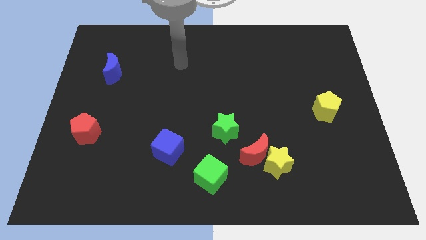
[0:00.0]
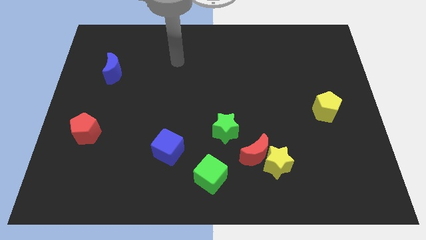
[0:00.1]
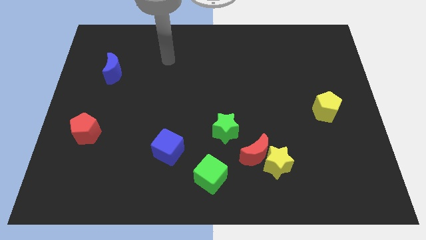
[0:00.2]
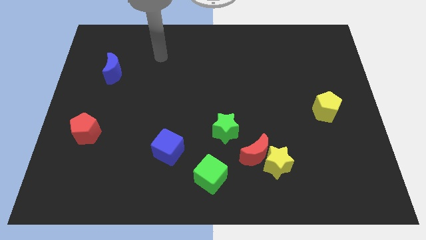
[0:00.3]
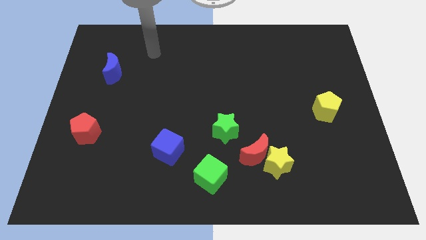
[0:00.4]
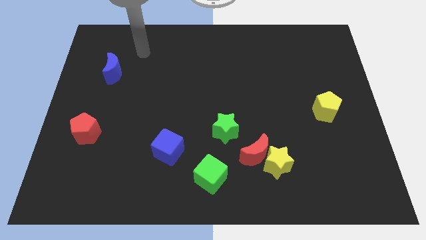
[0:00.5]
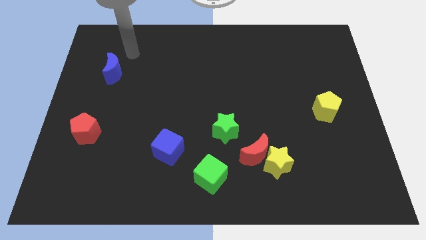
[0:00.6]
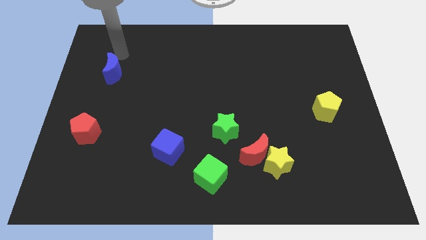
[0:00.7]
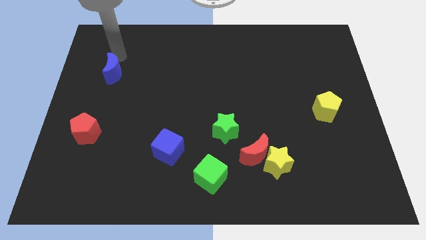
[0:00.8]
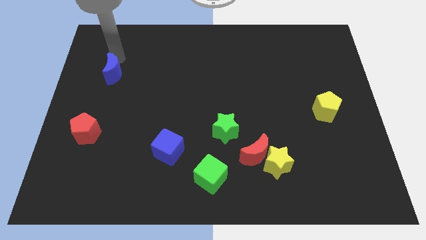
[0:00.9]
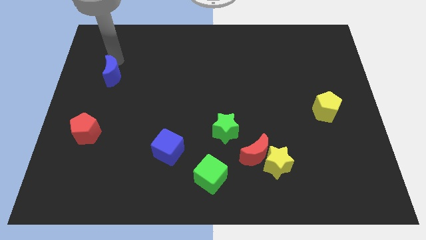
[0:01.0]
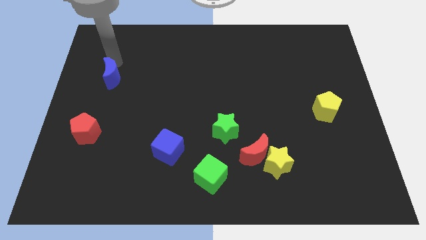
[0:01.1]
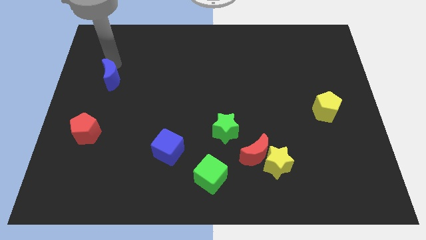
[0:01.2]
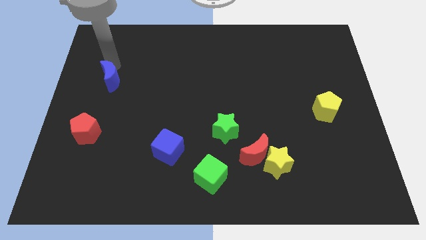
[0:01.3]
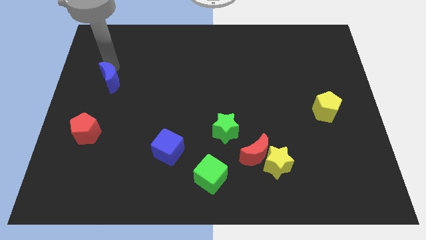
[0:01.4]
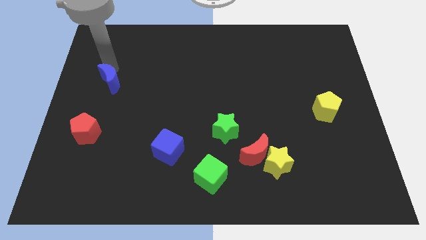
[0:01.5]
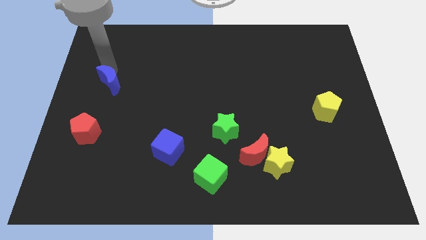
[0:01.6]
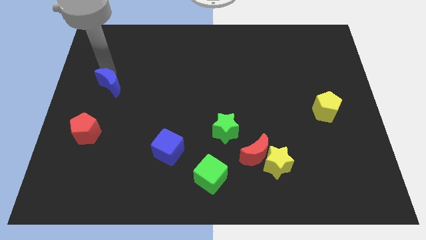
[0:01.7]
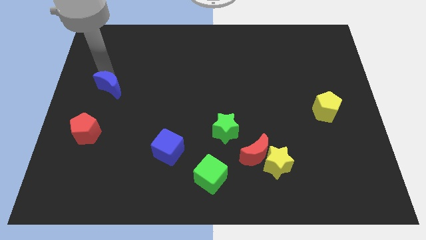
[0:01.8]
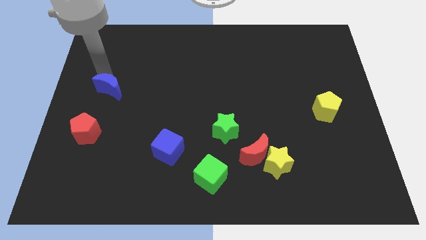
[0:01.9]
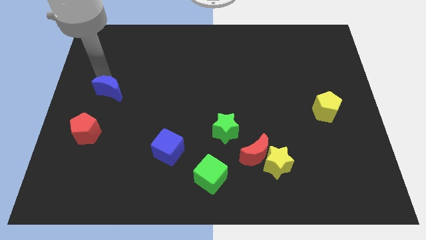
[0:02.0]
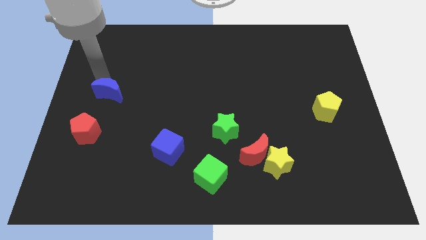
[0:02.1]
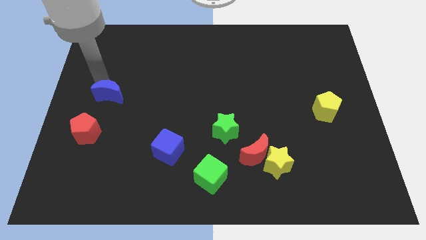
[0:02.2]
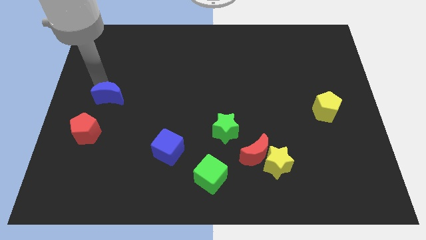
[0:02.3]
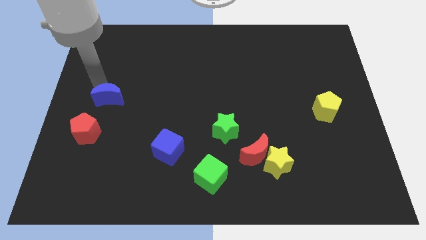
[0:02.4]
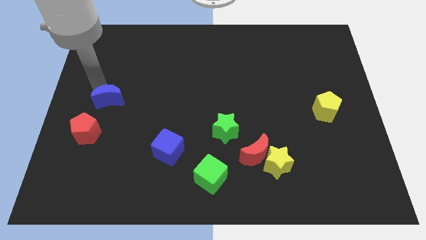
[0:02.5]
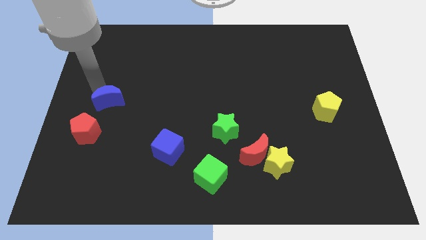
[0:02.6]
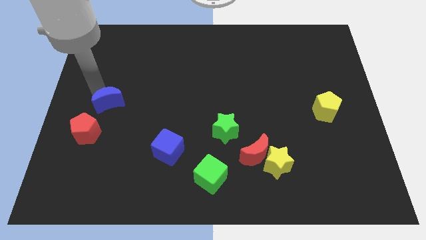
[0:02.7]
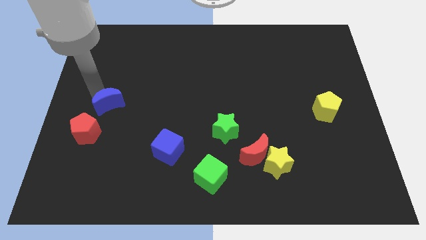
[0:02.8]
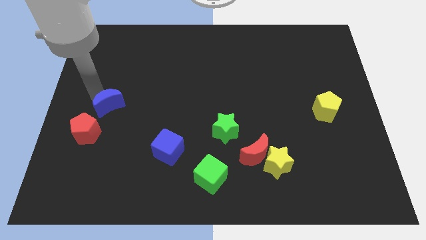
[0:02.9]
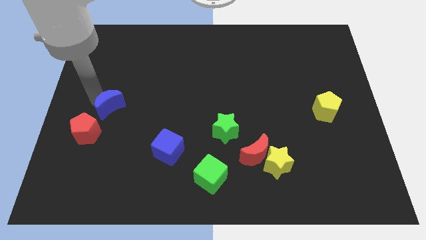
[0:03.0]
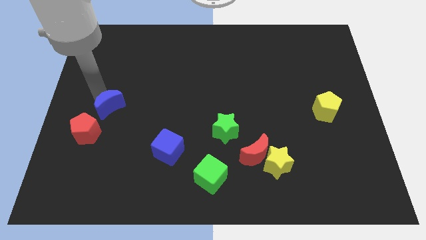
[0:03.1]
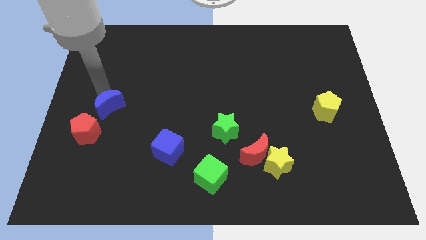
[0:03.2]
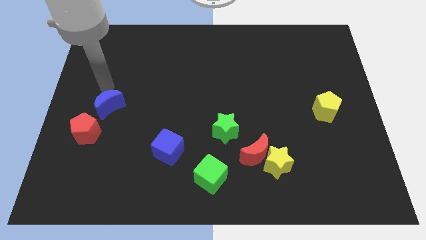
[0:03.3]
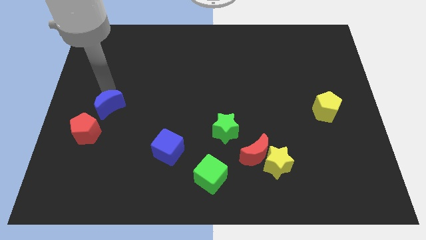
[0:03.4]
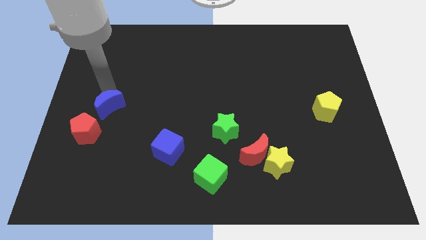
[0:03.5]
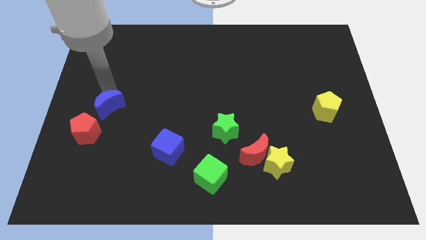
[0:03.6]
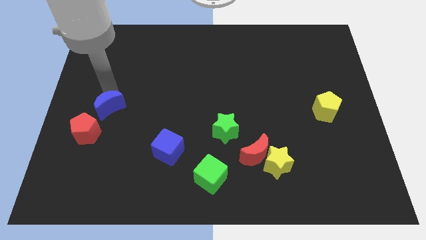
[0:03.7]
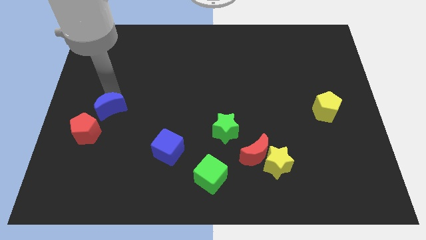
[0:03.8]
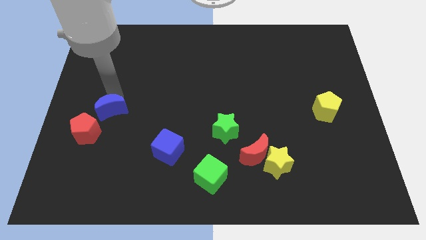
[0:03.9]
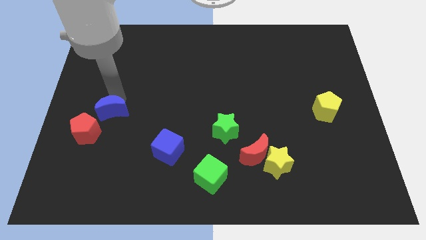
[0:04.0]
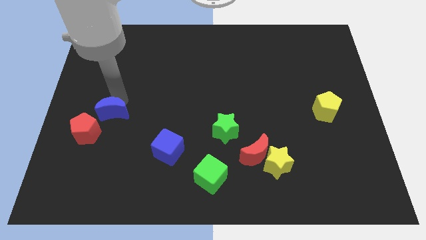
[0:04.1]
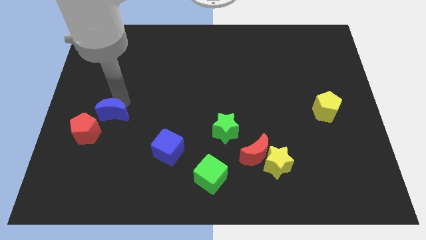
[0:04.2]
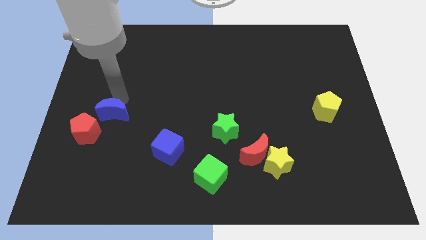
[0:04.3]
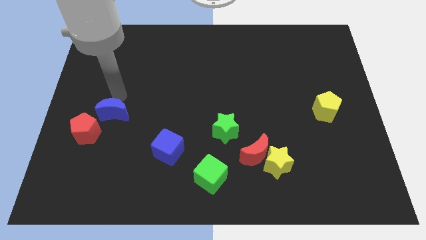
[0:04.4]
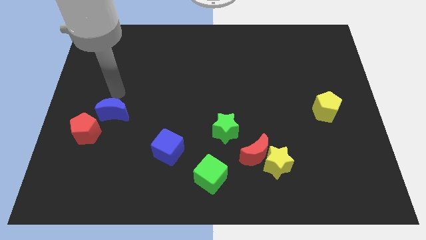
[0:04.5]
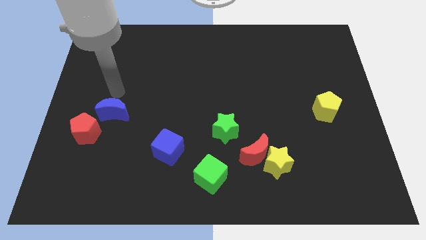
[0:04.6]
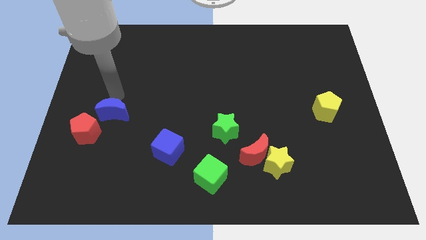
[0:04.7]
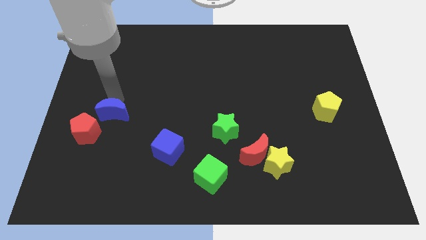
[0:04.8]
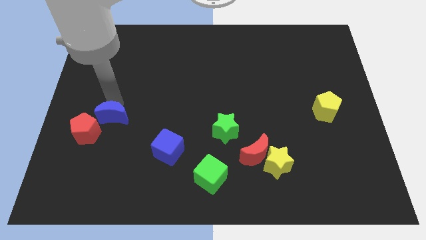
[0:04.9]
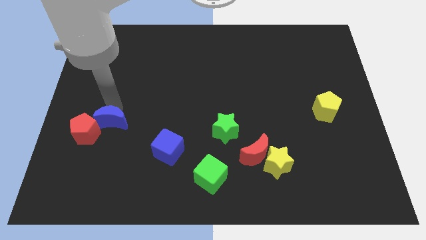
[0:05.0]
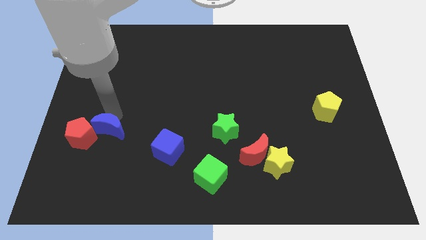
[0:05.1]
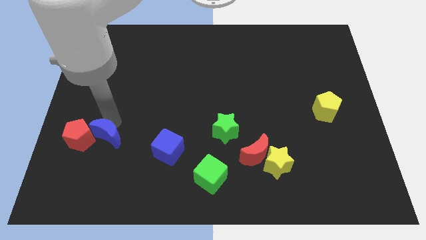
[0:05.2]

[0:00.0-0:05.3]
push the blue moon diagonally down and to the right of the red pentagon

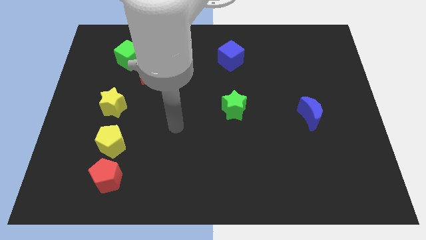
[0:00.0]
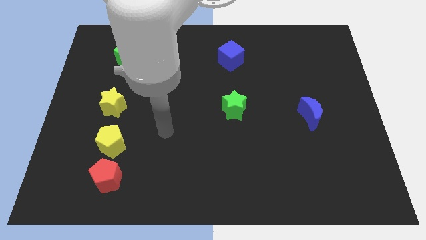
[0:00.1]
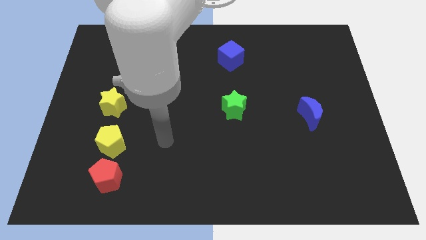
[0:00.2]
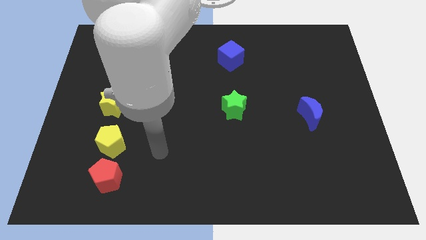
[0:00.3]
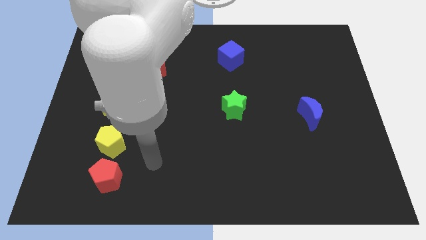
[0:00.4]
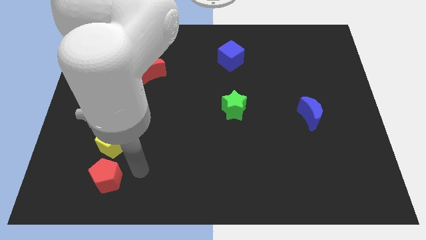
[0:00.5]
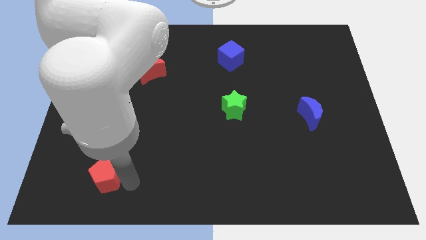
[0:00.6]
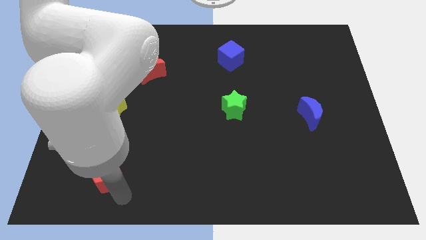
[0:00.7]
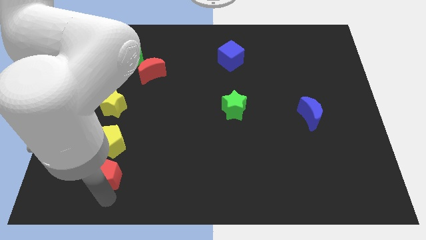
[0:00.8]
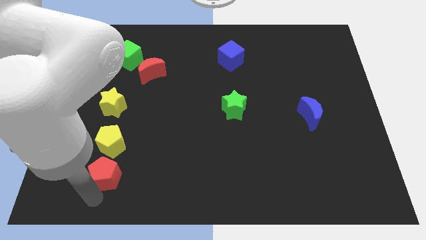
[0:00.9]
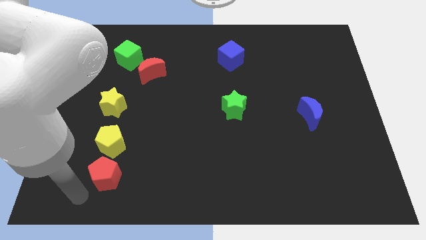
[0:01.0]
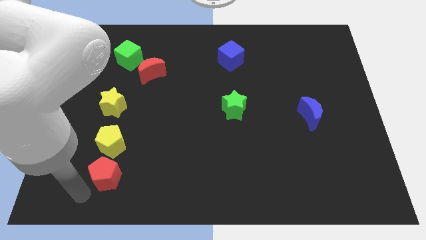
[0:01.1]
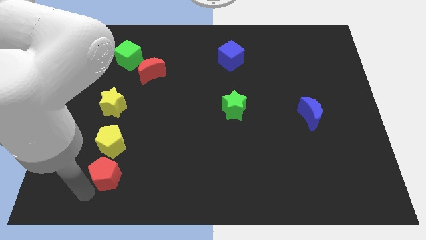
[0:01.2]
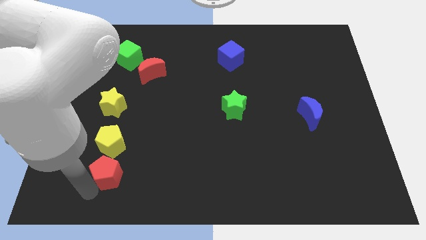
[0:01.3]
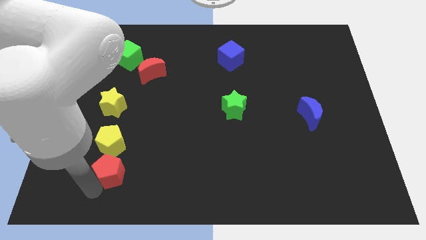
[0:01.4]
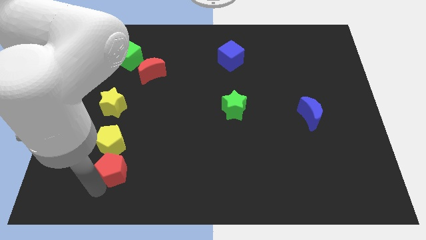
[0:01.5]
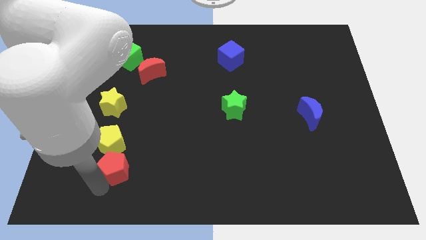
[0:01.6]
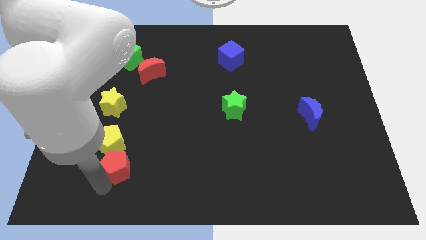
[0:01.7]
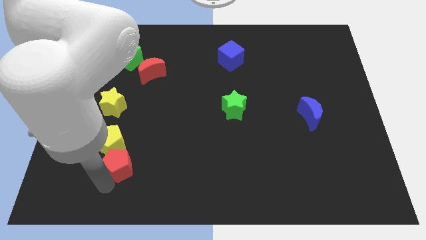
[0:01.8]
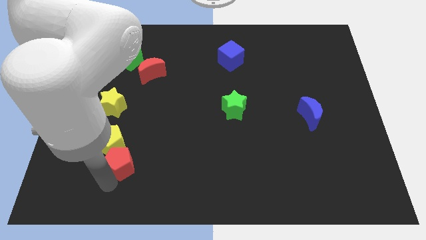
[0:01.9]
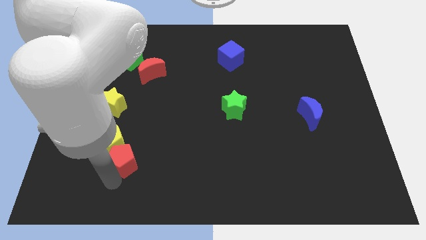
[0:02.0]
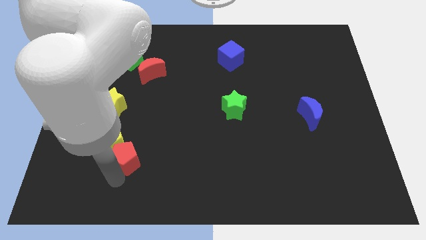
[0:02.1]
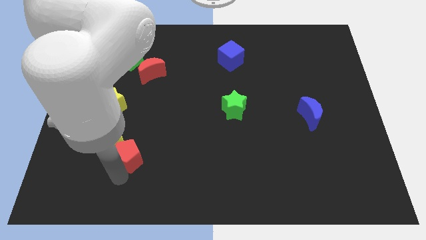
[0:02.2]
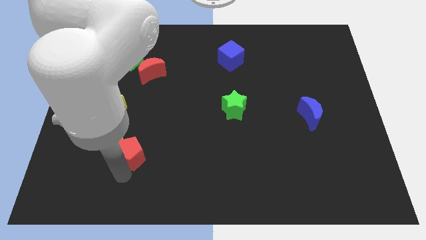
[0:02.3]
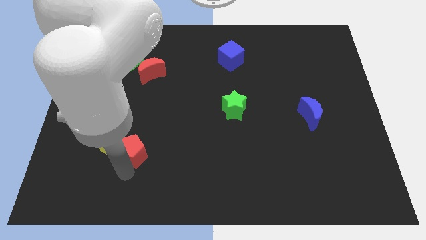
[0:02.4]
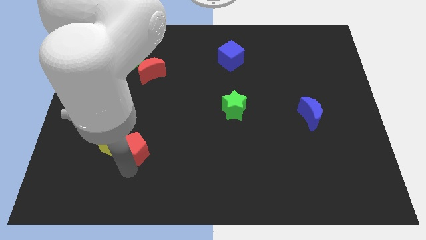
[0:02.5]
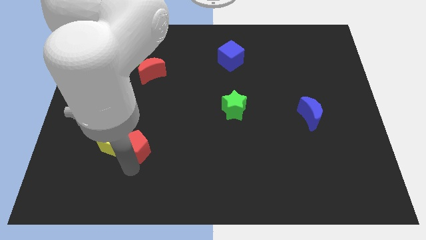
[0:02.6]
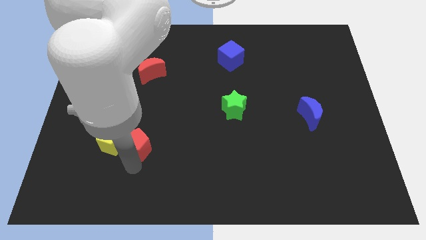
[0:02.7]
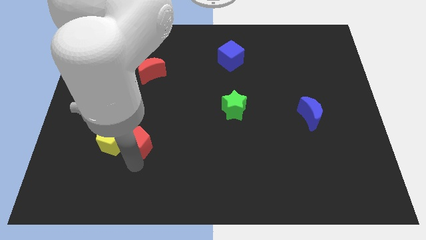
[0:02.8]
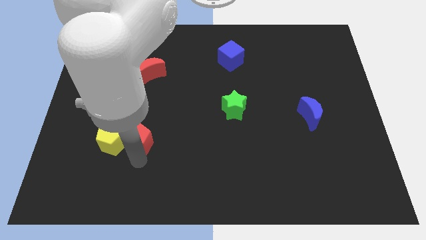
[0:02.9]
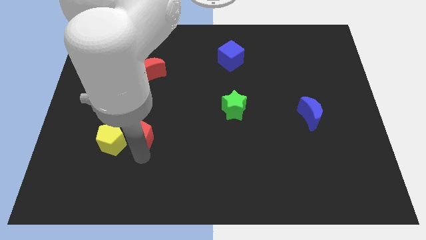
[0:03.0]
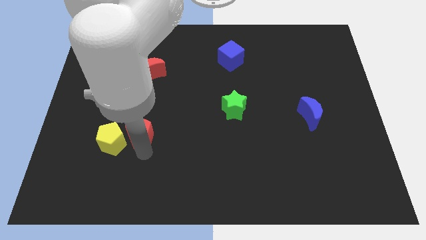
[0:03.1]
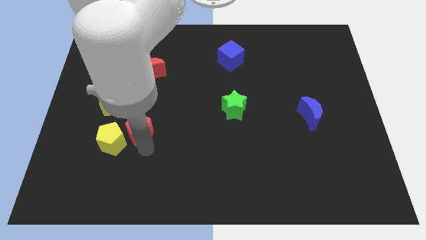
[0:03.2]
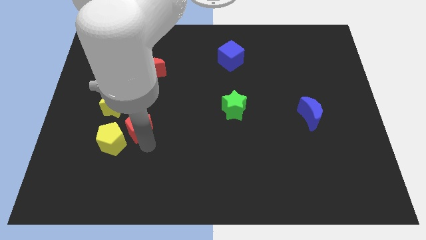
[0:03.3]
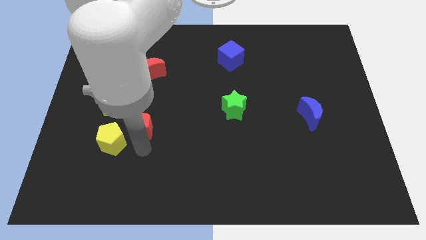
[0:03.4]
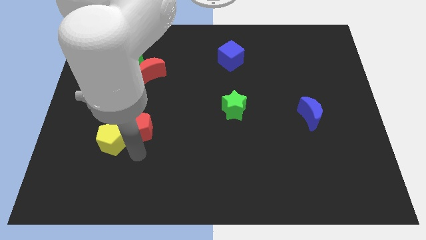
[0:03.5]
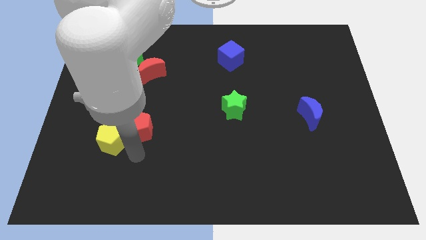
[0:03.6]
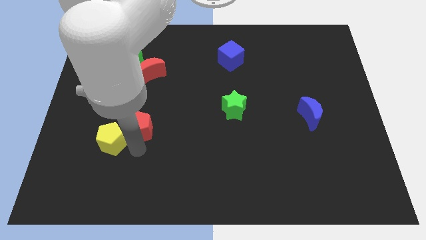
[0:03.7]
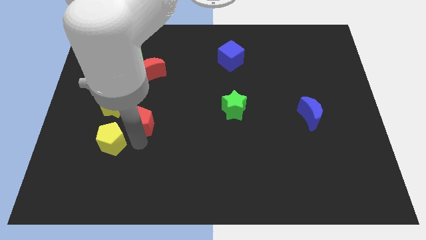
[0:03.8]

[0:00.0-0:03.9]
move the red pentagon to the bottom side of the red moon
